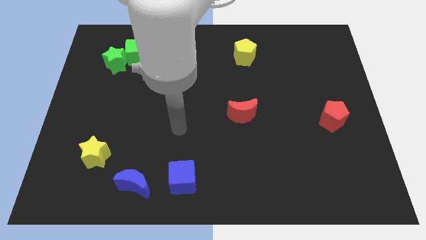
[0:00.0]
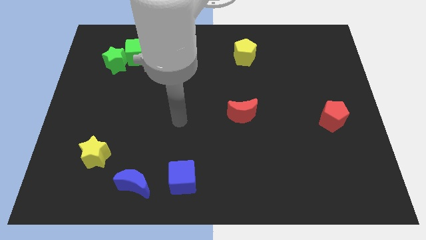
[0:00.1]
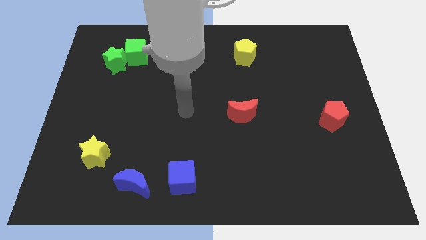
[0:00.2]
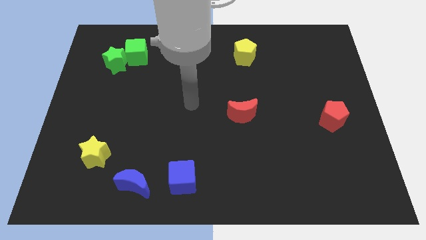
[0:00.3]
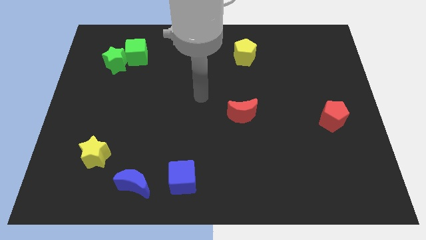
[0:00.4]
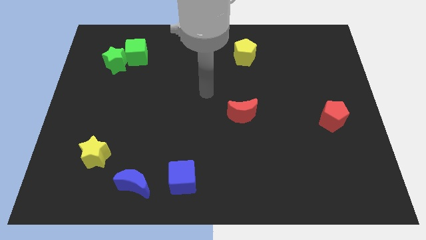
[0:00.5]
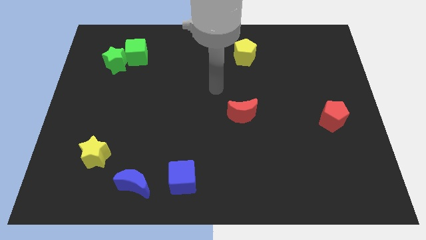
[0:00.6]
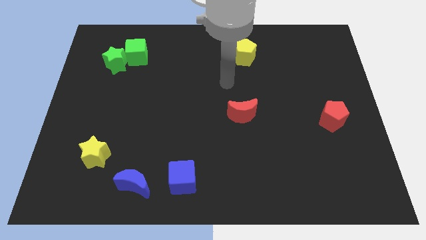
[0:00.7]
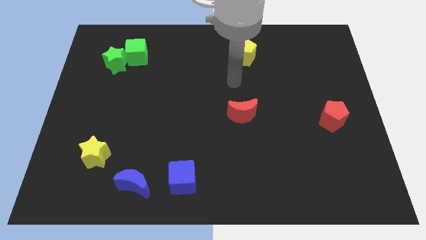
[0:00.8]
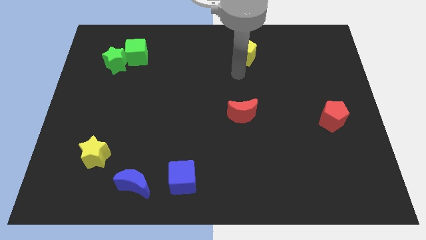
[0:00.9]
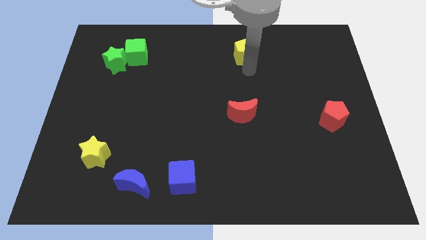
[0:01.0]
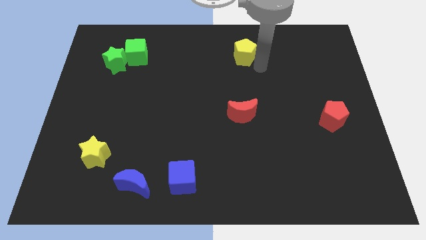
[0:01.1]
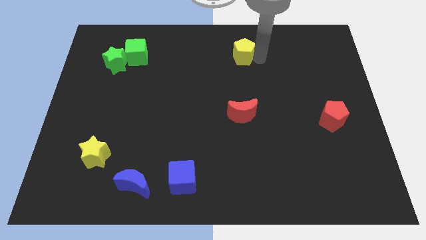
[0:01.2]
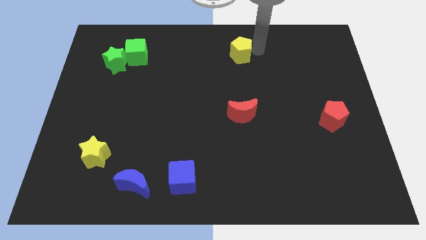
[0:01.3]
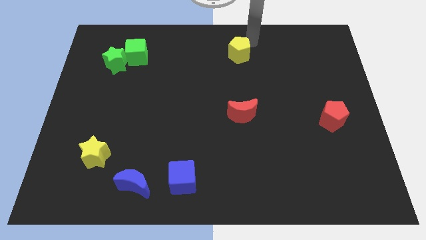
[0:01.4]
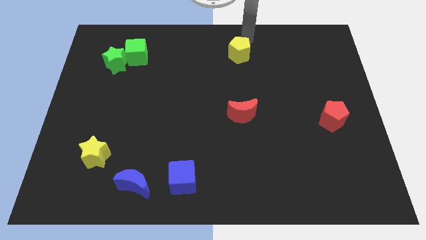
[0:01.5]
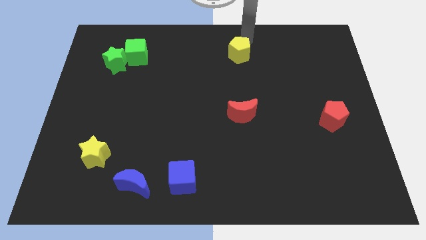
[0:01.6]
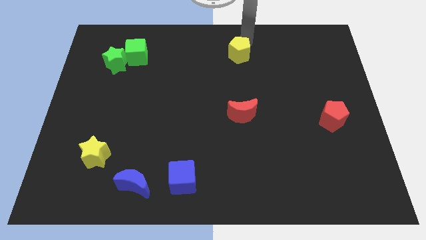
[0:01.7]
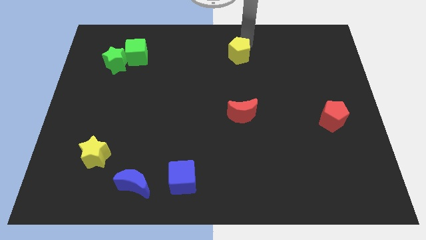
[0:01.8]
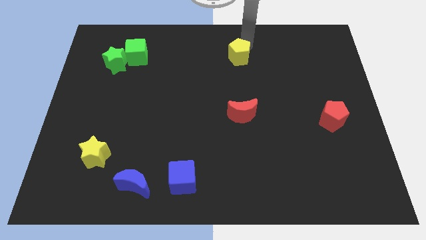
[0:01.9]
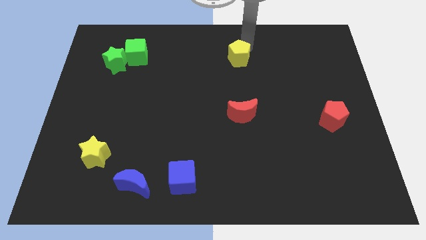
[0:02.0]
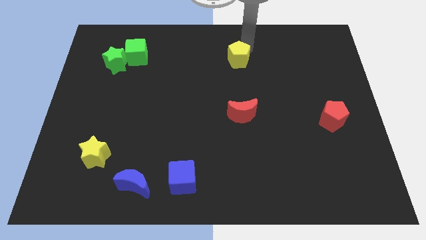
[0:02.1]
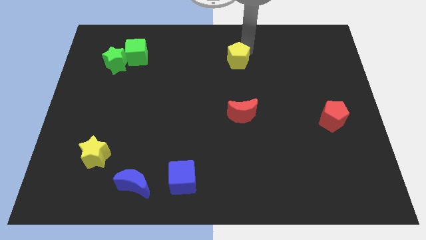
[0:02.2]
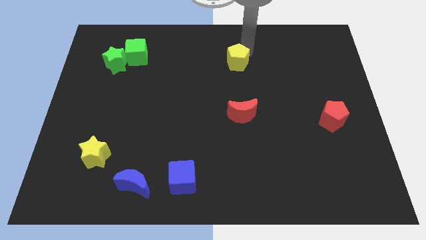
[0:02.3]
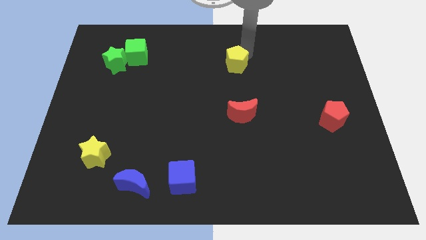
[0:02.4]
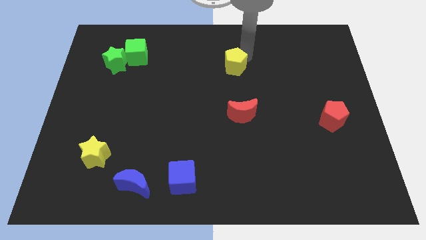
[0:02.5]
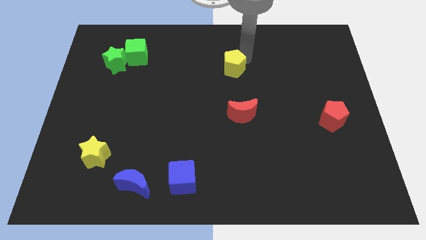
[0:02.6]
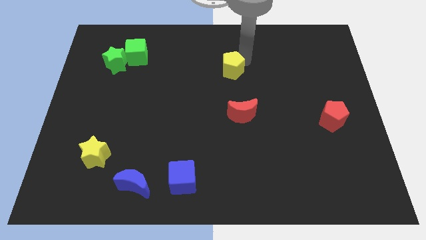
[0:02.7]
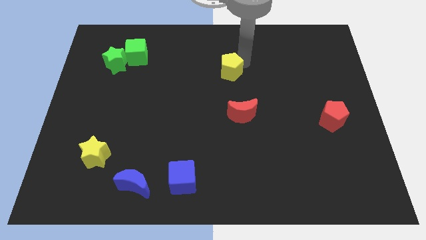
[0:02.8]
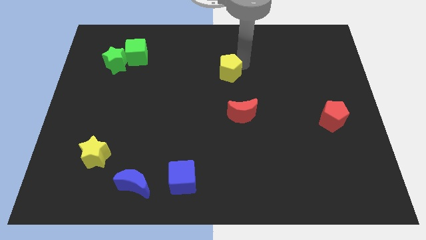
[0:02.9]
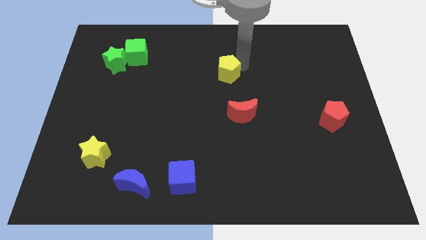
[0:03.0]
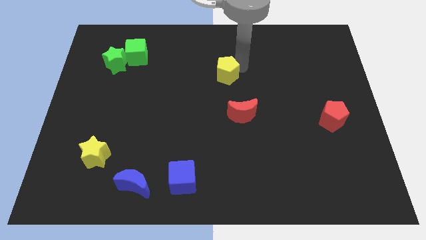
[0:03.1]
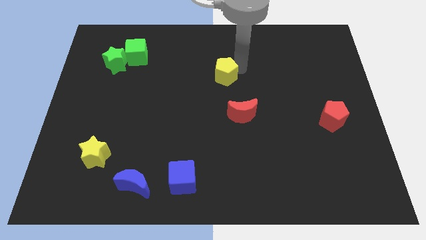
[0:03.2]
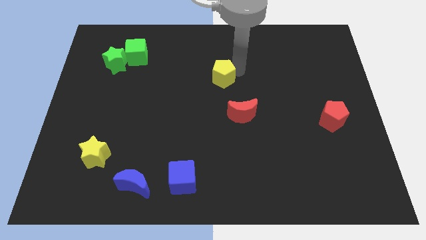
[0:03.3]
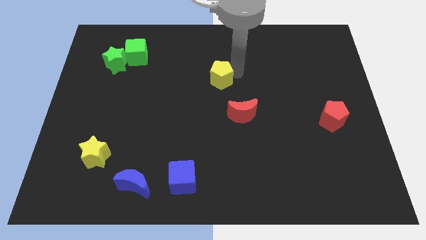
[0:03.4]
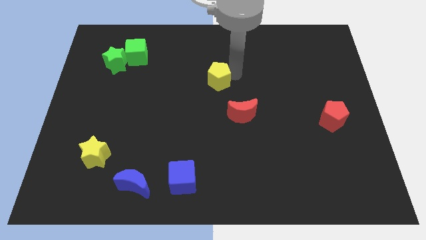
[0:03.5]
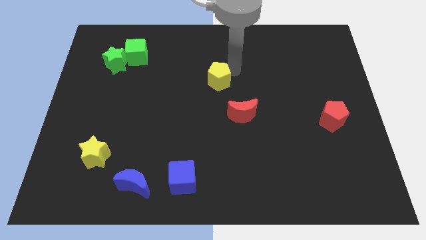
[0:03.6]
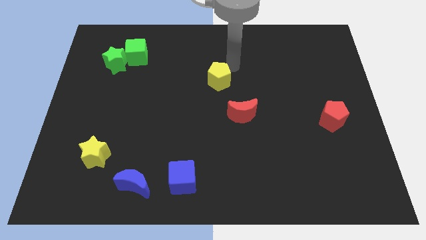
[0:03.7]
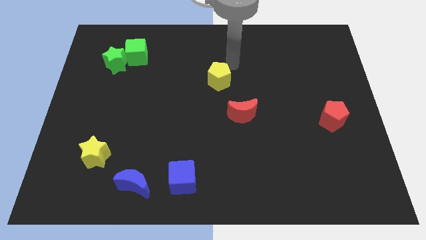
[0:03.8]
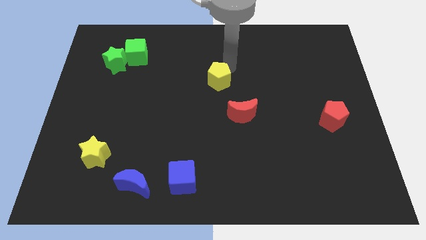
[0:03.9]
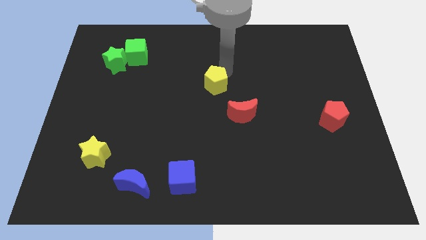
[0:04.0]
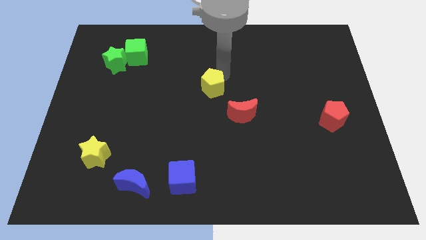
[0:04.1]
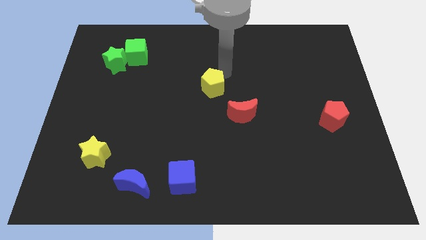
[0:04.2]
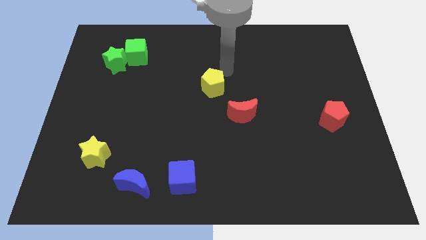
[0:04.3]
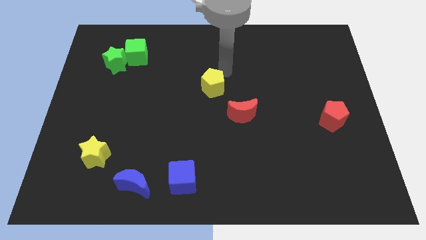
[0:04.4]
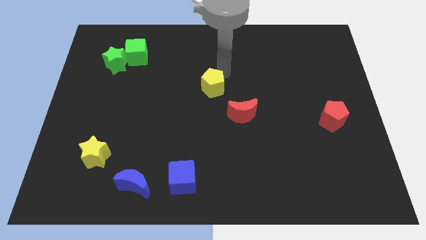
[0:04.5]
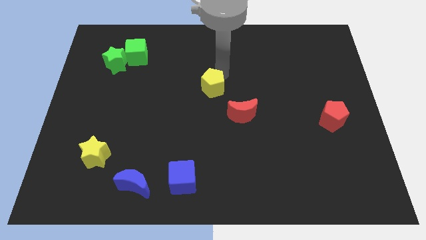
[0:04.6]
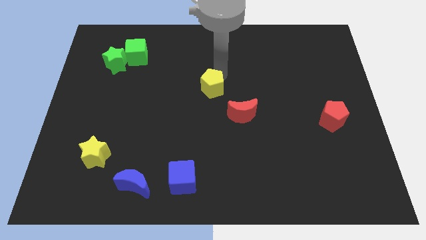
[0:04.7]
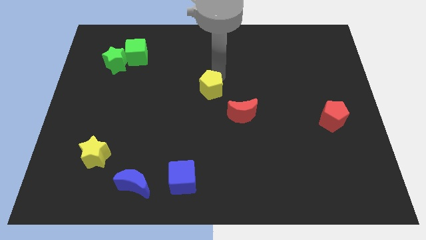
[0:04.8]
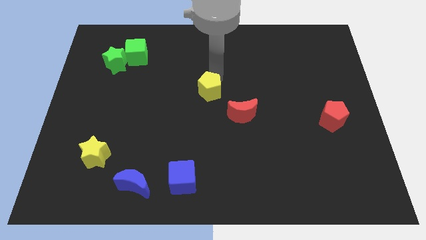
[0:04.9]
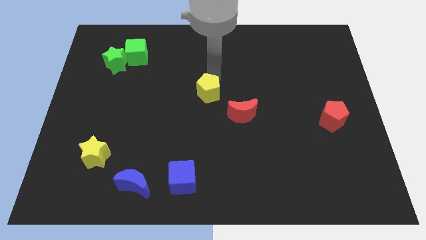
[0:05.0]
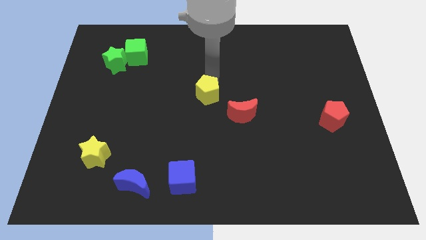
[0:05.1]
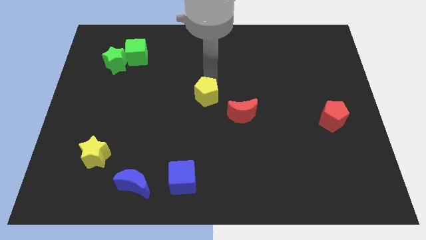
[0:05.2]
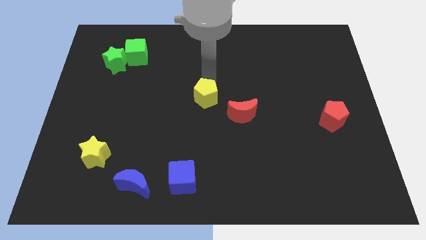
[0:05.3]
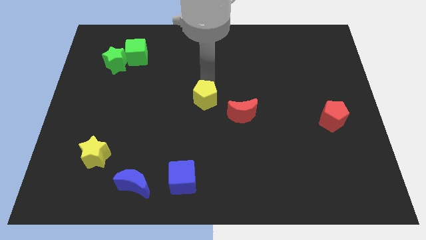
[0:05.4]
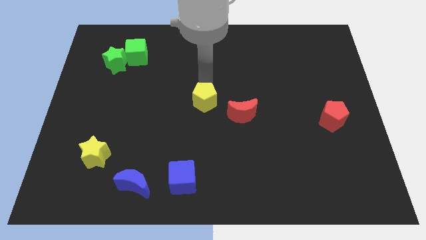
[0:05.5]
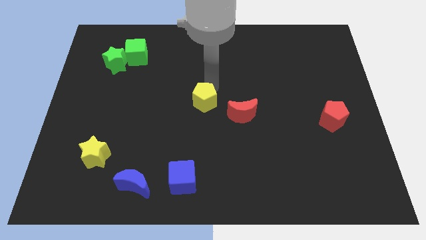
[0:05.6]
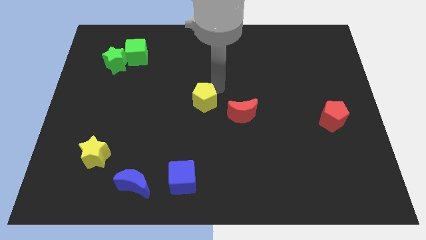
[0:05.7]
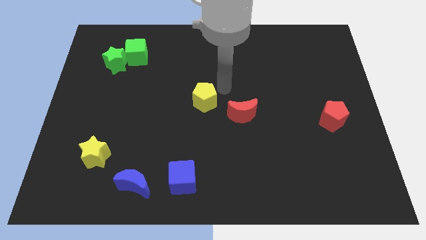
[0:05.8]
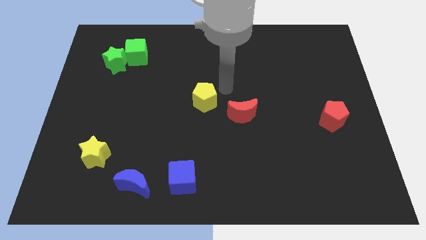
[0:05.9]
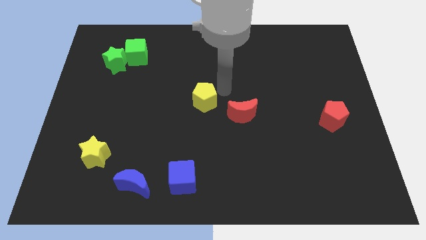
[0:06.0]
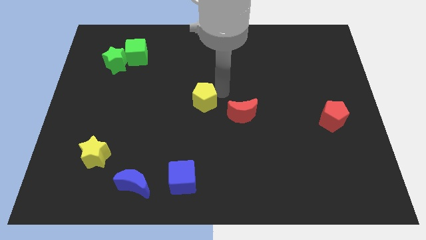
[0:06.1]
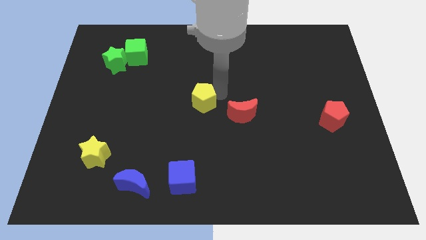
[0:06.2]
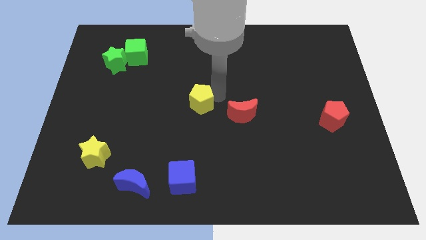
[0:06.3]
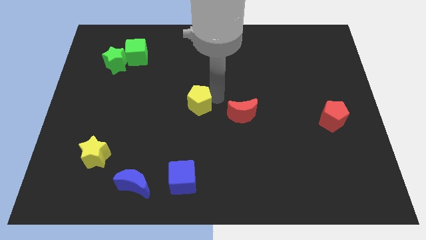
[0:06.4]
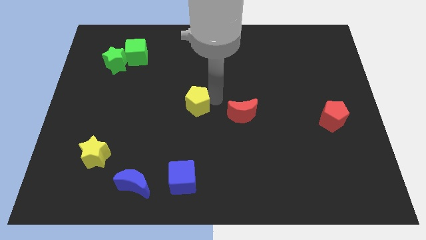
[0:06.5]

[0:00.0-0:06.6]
push the yellow pentagon downwards and left

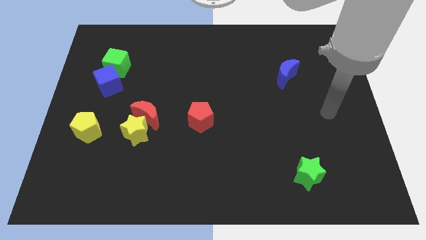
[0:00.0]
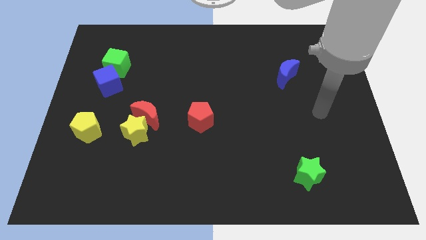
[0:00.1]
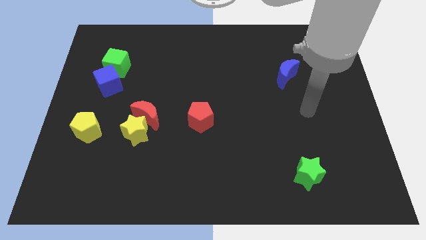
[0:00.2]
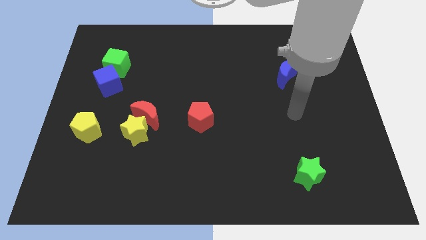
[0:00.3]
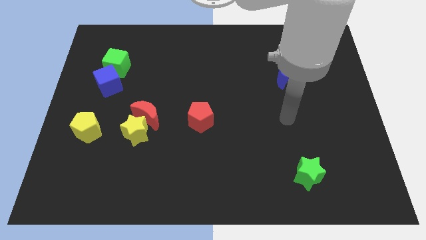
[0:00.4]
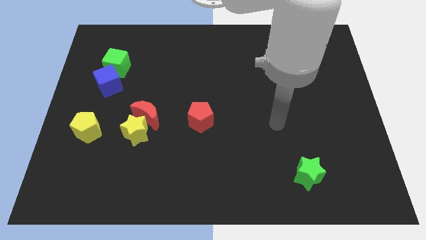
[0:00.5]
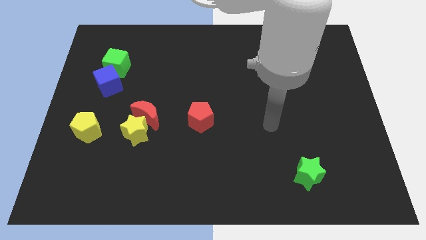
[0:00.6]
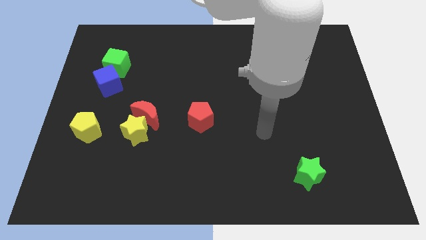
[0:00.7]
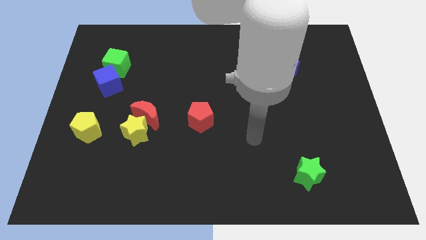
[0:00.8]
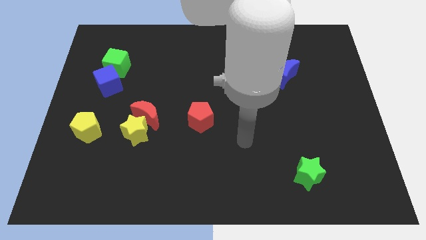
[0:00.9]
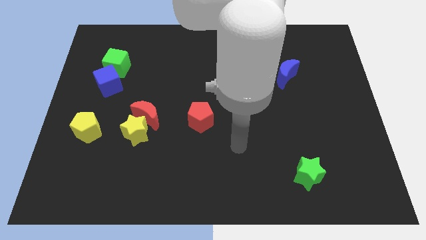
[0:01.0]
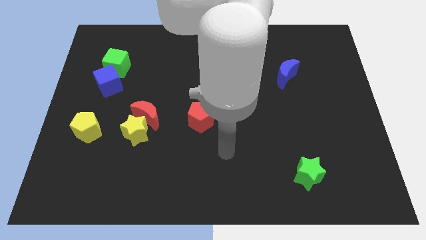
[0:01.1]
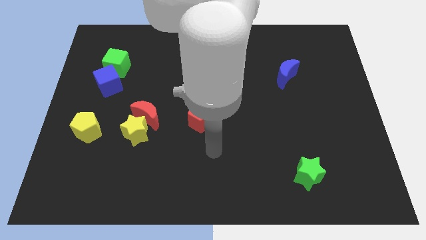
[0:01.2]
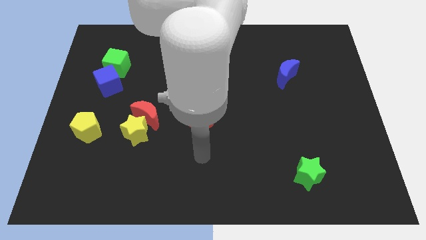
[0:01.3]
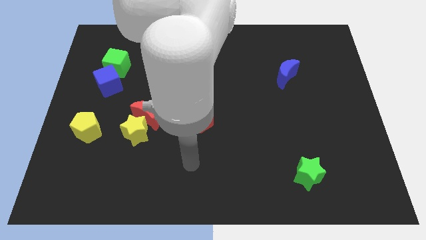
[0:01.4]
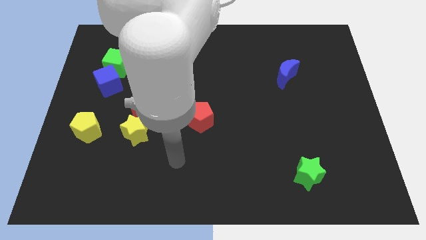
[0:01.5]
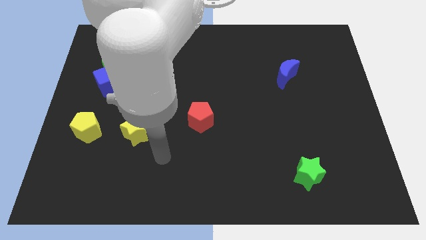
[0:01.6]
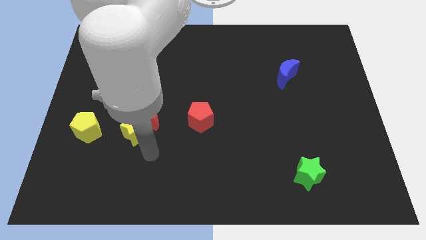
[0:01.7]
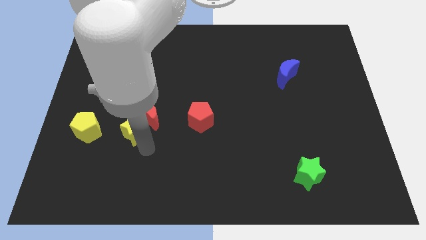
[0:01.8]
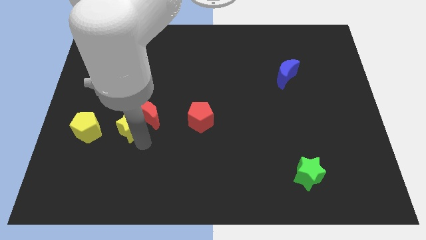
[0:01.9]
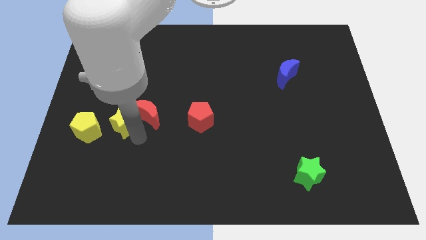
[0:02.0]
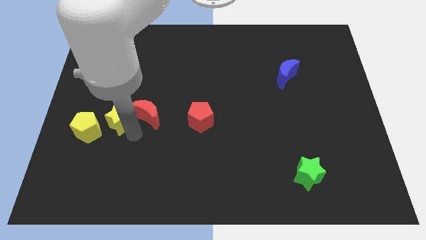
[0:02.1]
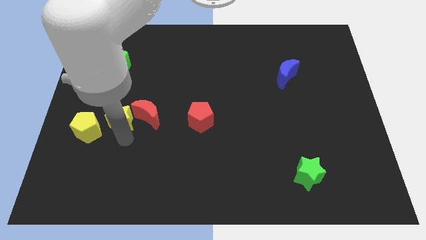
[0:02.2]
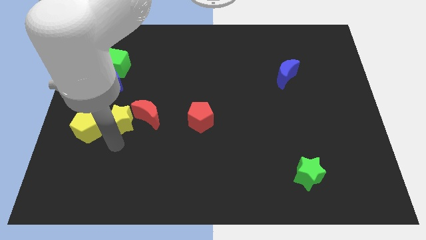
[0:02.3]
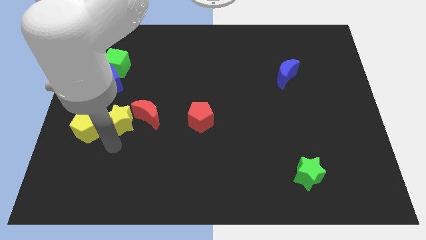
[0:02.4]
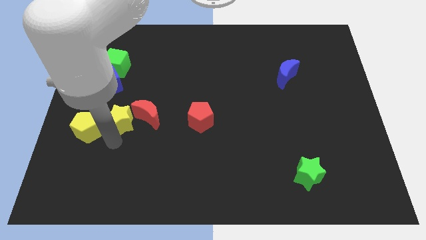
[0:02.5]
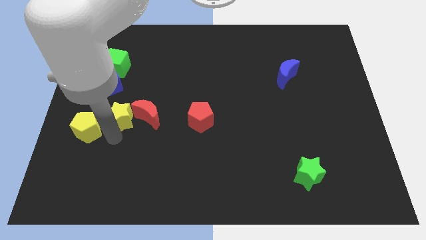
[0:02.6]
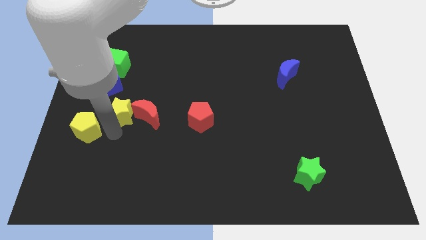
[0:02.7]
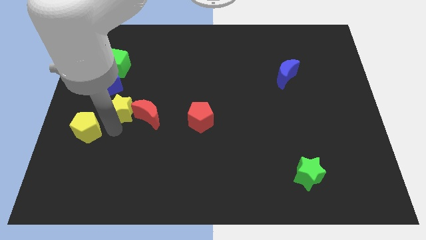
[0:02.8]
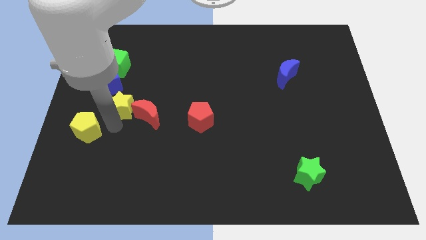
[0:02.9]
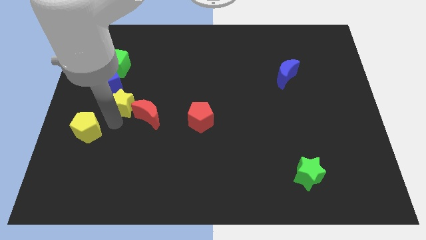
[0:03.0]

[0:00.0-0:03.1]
push the yellow star up somewhat
